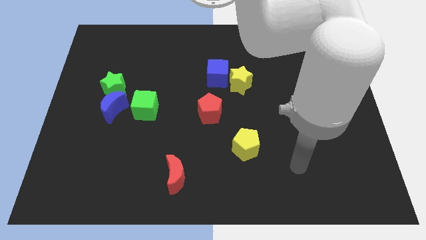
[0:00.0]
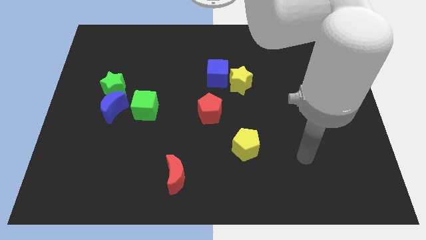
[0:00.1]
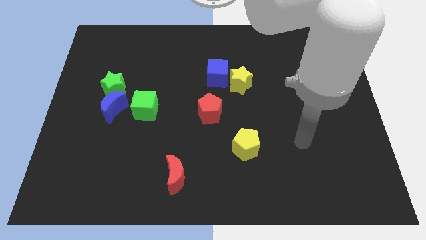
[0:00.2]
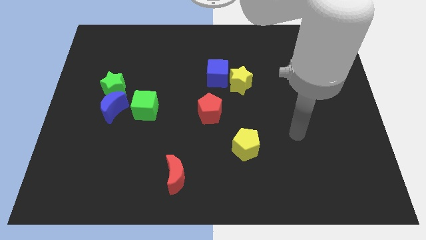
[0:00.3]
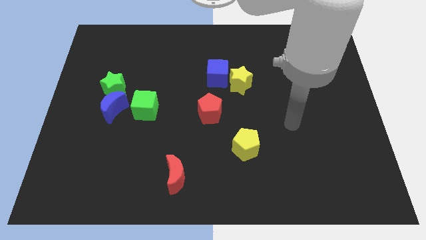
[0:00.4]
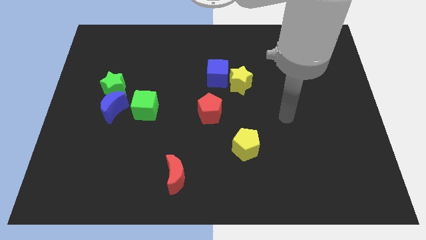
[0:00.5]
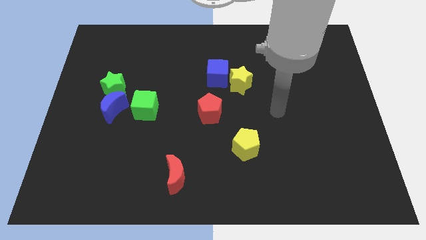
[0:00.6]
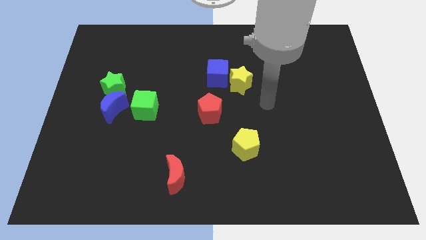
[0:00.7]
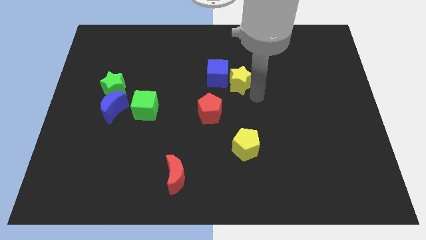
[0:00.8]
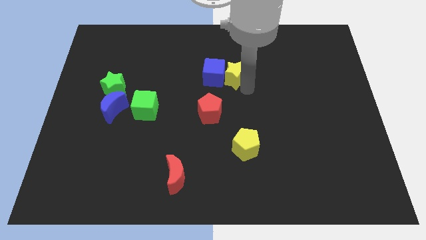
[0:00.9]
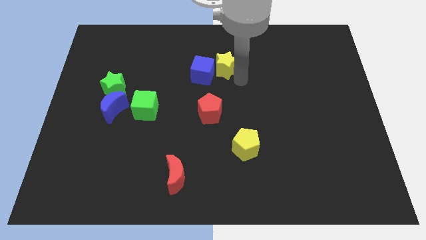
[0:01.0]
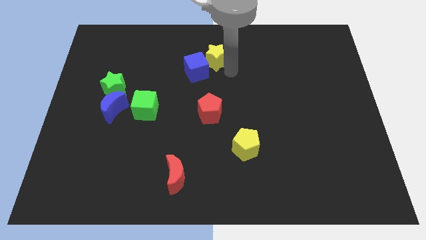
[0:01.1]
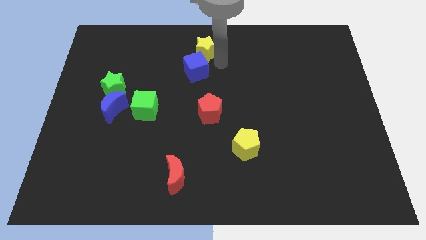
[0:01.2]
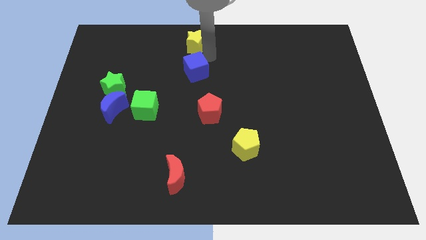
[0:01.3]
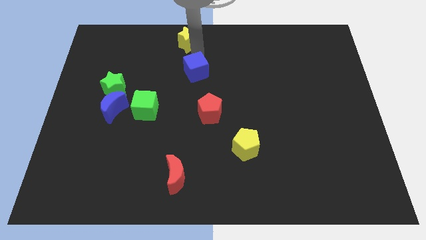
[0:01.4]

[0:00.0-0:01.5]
pull the blue cube apart from the yellow star

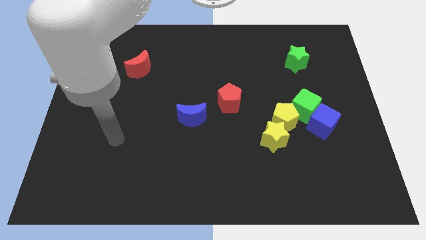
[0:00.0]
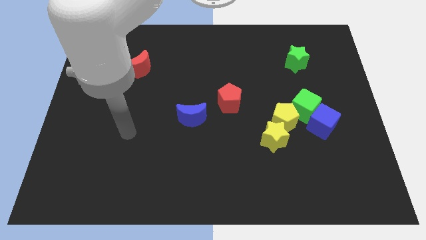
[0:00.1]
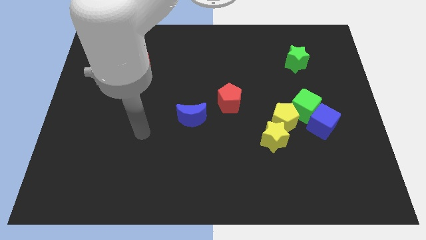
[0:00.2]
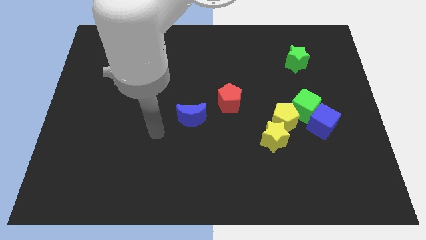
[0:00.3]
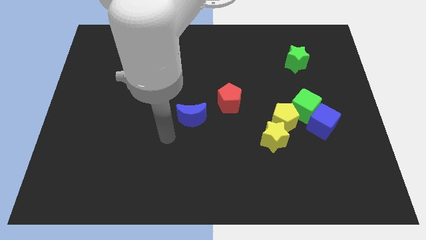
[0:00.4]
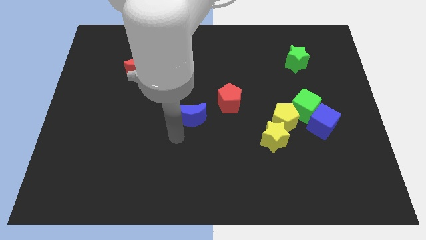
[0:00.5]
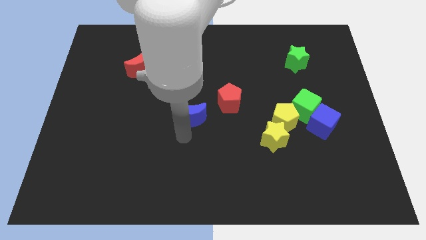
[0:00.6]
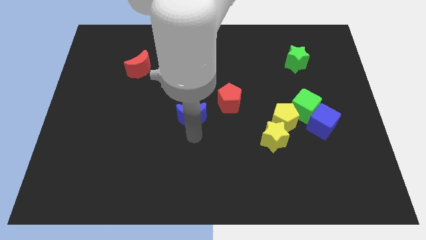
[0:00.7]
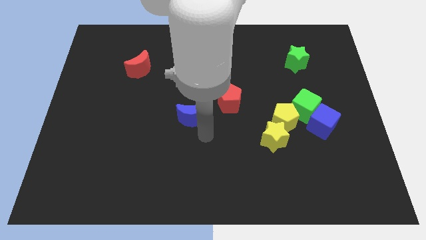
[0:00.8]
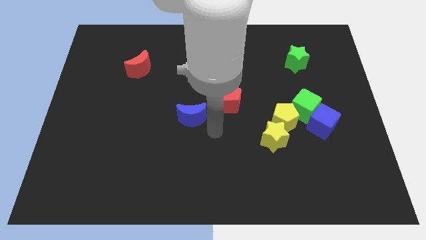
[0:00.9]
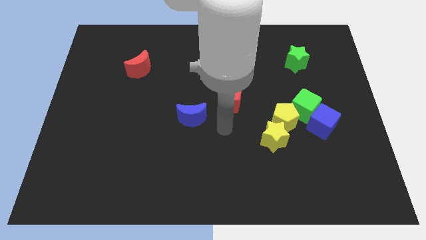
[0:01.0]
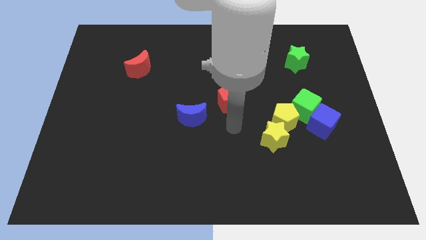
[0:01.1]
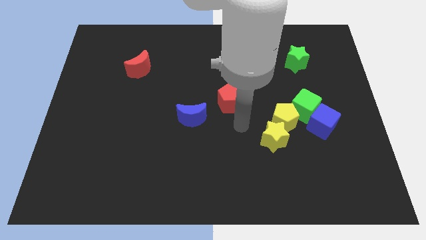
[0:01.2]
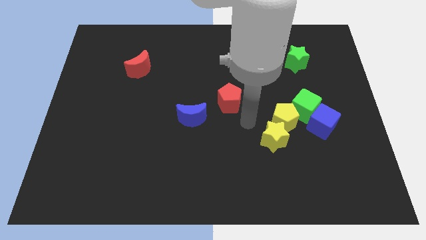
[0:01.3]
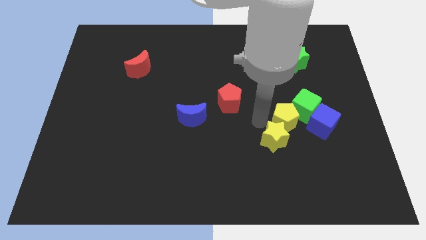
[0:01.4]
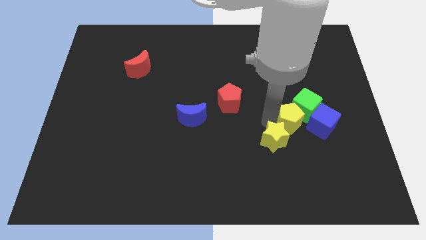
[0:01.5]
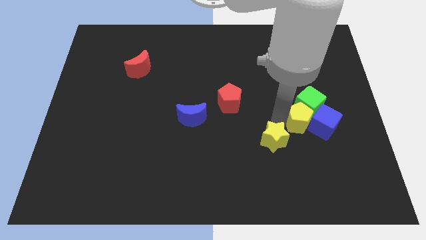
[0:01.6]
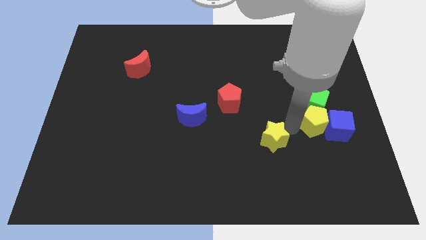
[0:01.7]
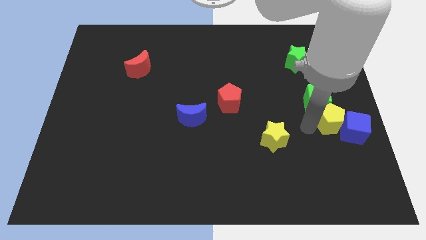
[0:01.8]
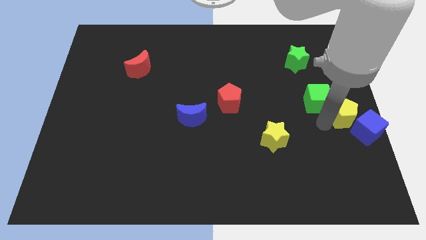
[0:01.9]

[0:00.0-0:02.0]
pull the green cube apart from the blue cube and yellow pentagon

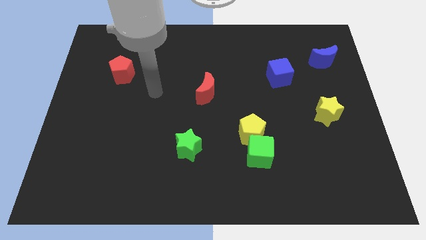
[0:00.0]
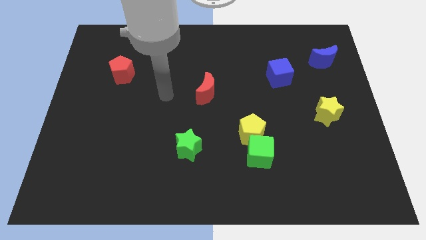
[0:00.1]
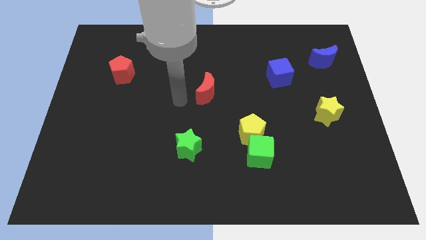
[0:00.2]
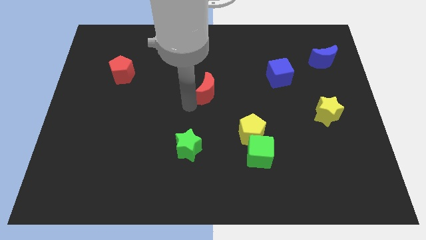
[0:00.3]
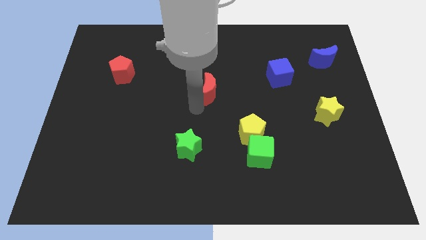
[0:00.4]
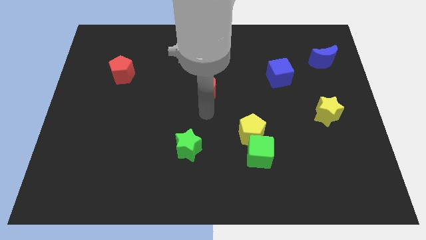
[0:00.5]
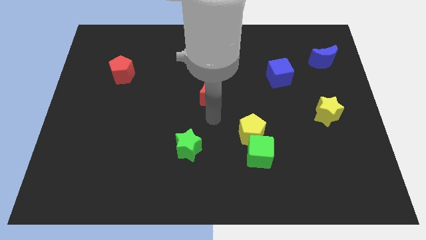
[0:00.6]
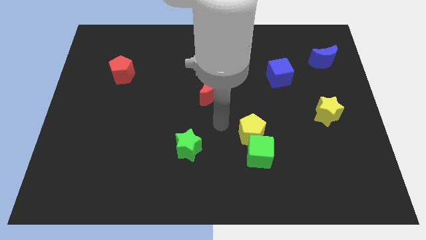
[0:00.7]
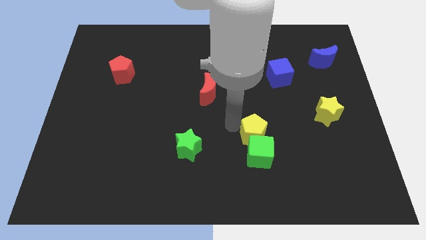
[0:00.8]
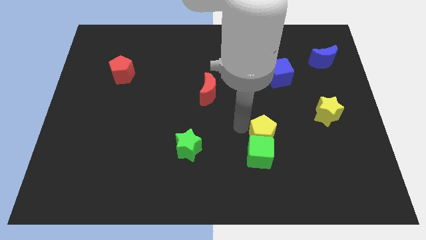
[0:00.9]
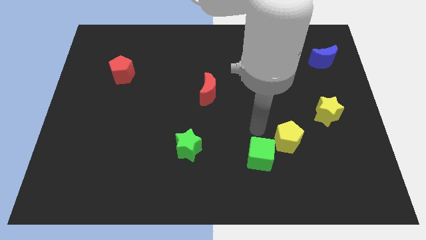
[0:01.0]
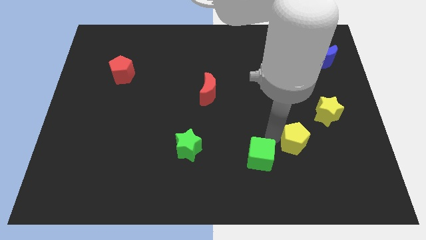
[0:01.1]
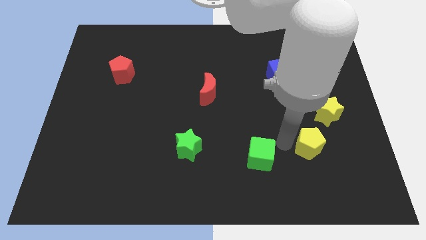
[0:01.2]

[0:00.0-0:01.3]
pull the green cube apart from the yellow pentagon

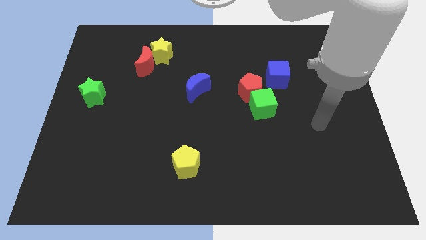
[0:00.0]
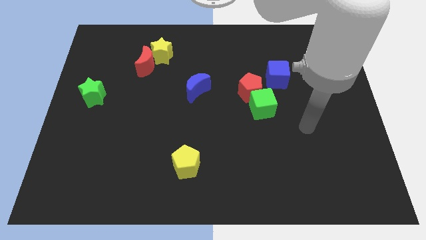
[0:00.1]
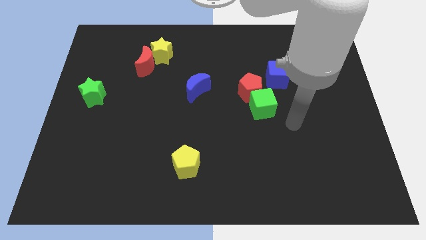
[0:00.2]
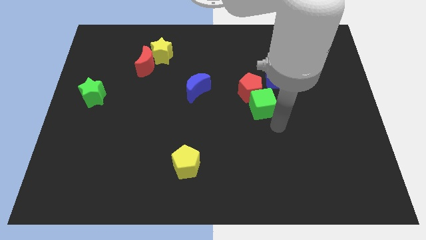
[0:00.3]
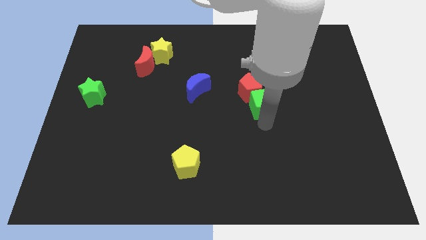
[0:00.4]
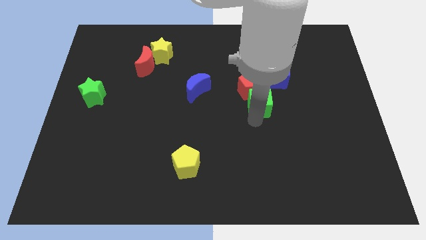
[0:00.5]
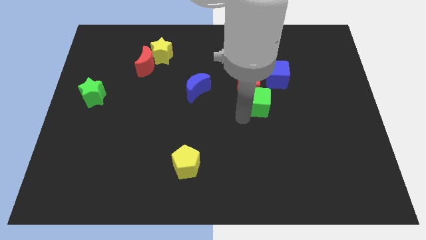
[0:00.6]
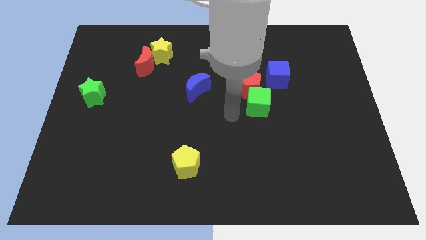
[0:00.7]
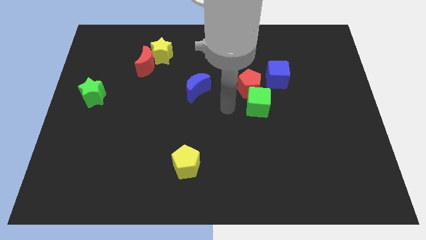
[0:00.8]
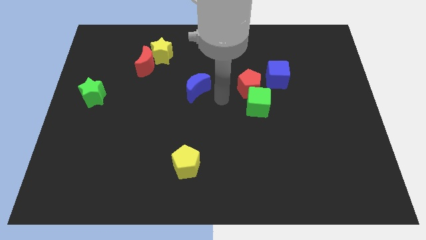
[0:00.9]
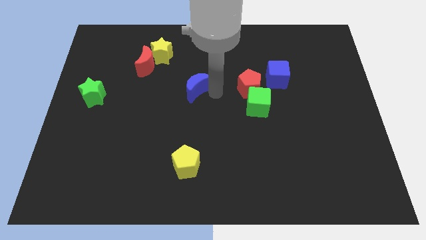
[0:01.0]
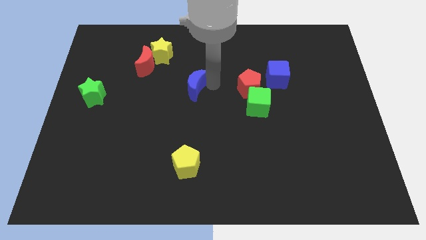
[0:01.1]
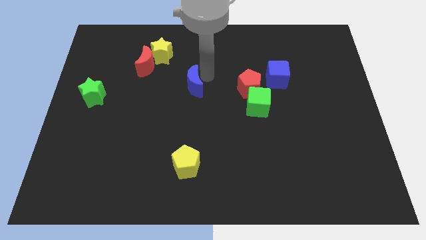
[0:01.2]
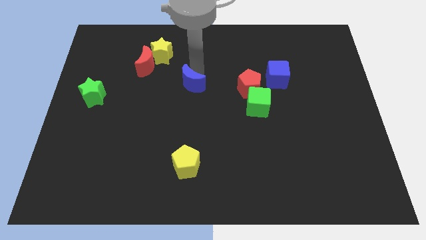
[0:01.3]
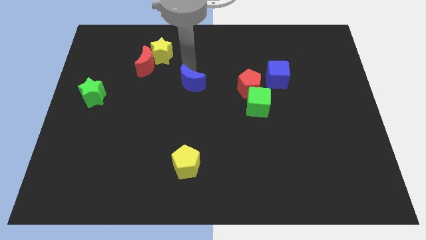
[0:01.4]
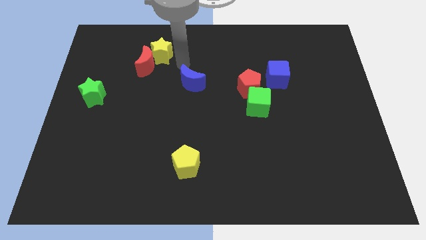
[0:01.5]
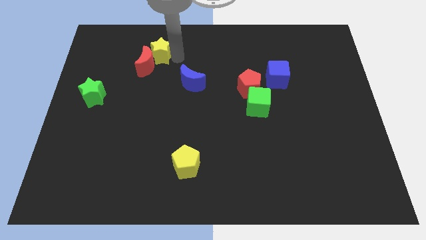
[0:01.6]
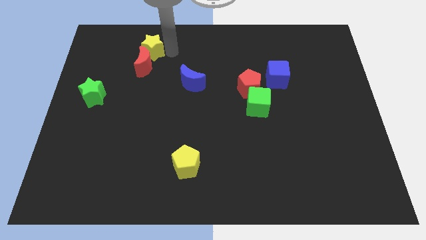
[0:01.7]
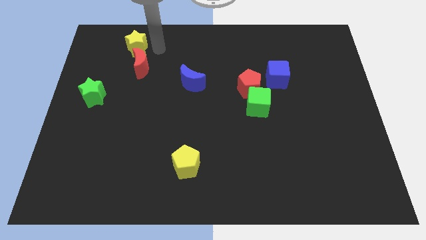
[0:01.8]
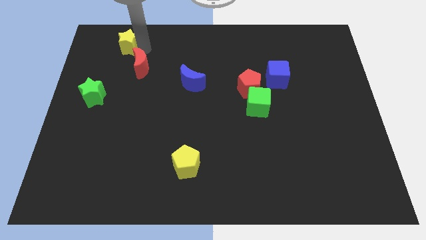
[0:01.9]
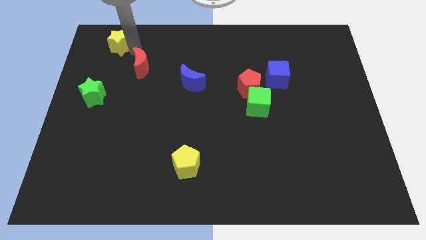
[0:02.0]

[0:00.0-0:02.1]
pull the red moon apart from the yellow star

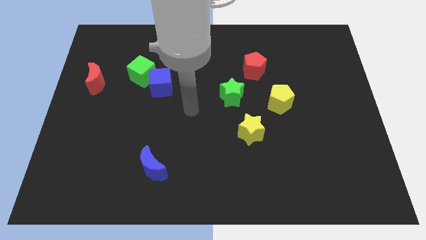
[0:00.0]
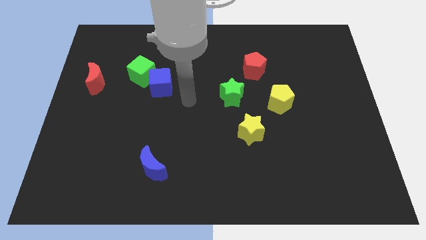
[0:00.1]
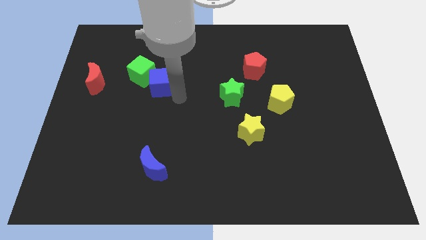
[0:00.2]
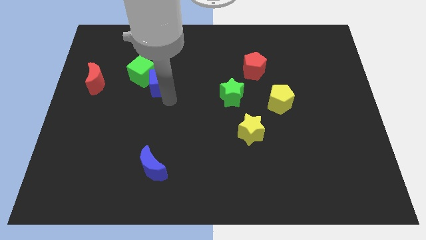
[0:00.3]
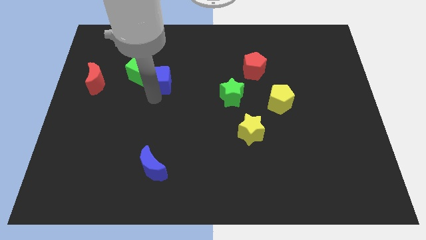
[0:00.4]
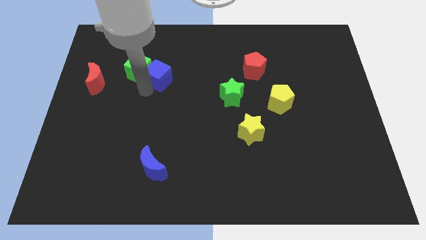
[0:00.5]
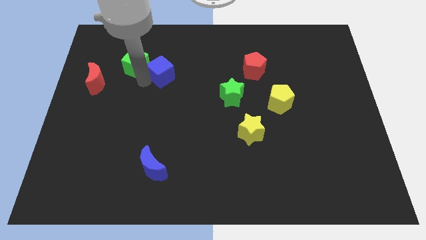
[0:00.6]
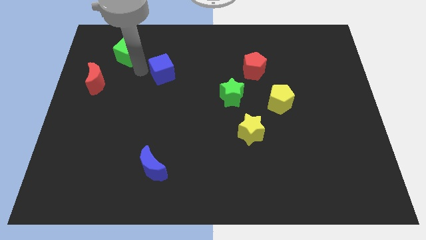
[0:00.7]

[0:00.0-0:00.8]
move the blue cube away from the green cube

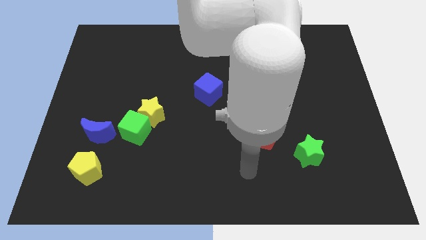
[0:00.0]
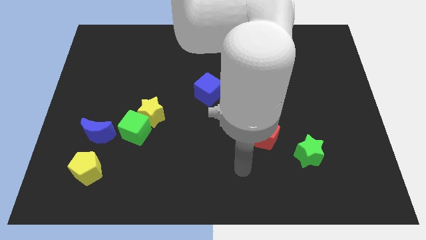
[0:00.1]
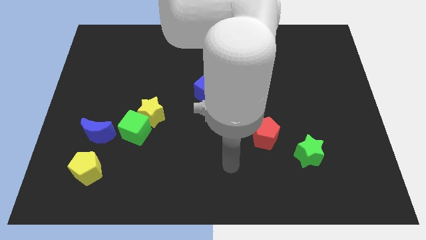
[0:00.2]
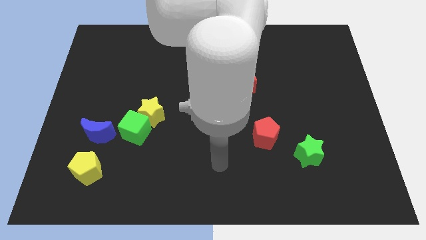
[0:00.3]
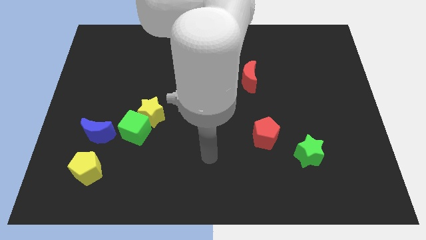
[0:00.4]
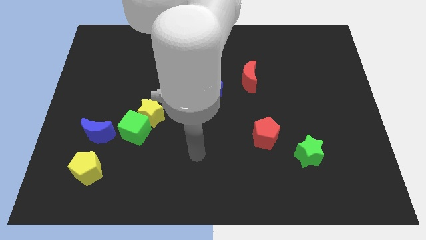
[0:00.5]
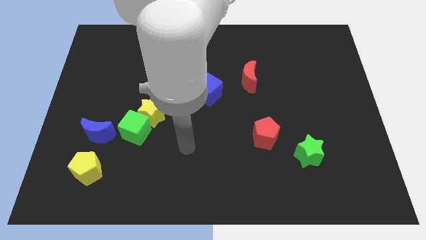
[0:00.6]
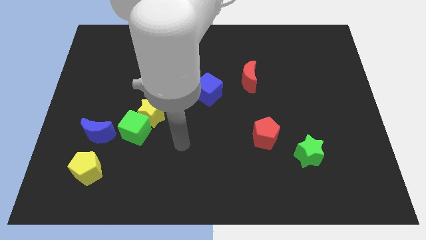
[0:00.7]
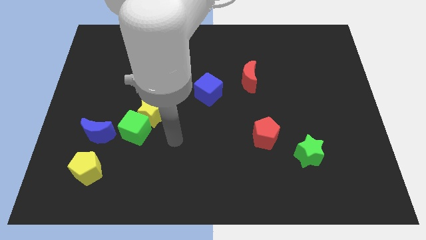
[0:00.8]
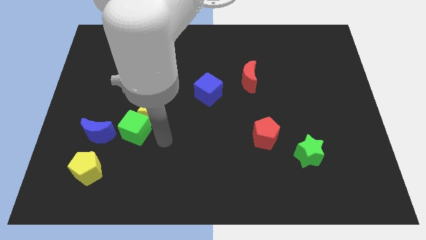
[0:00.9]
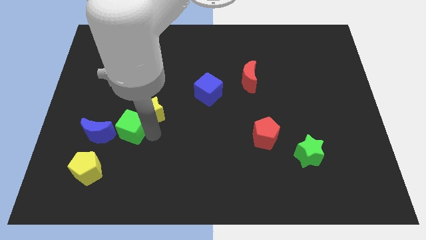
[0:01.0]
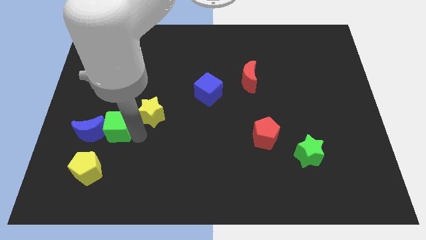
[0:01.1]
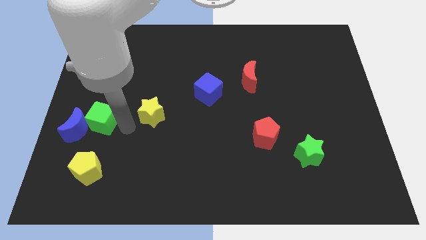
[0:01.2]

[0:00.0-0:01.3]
move the yellow star away from the green cube

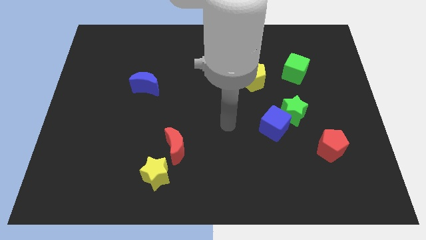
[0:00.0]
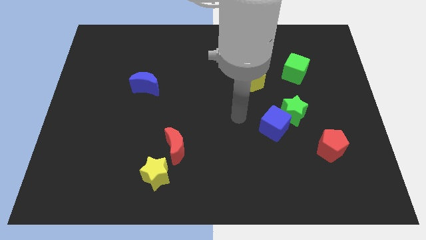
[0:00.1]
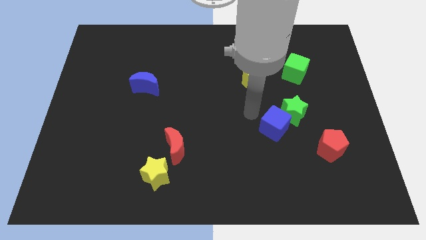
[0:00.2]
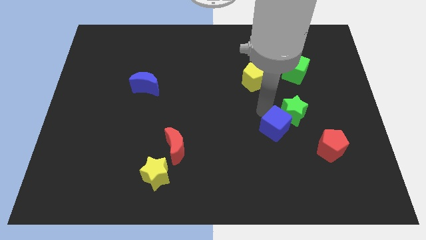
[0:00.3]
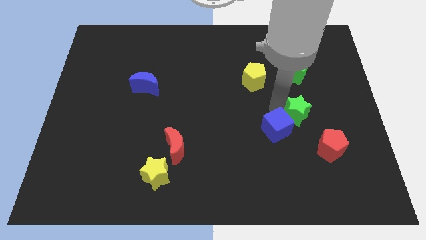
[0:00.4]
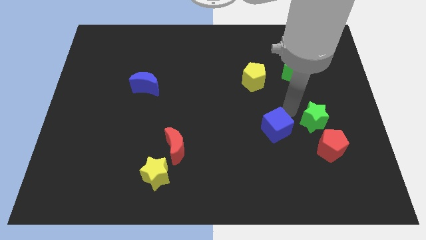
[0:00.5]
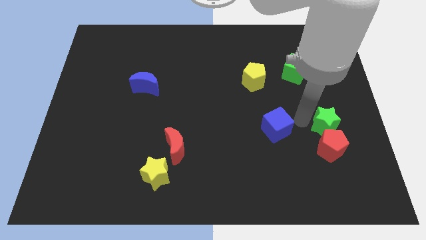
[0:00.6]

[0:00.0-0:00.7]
separate the blue cube from the green star
